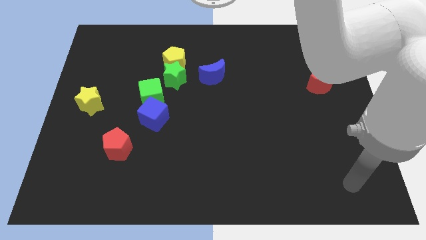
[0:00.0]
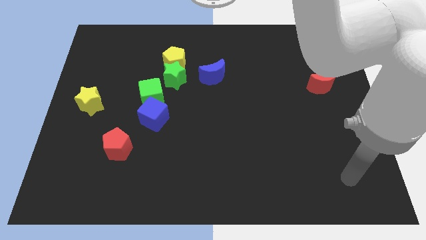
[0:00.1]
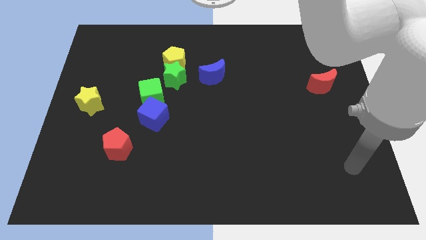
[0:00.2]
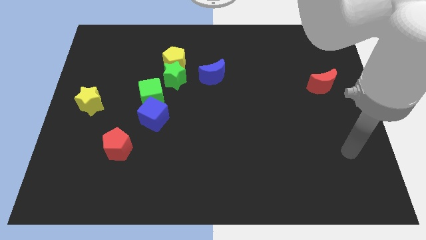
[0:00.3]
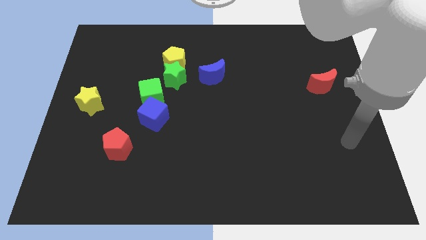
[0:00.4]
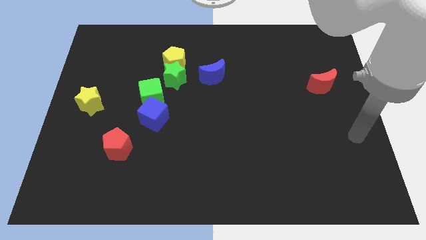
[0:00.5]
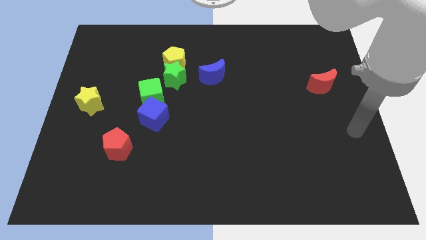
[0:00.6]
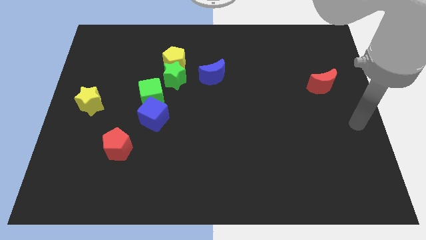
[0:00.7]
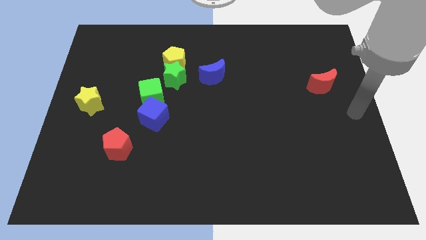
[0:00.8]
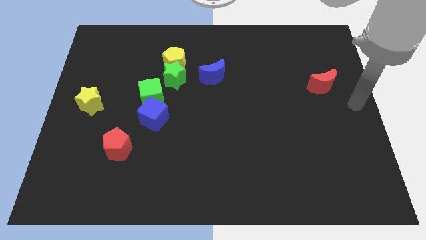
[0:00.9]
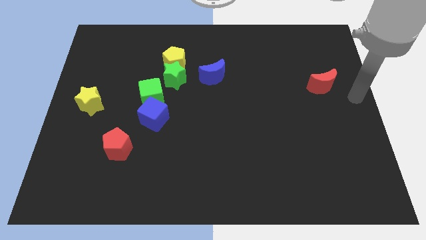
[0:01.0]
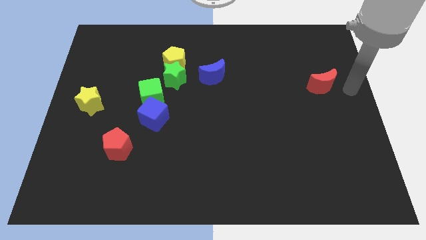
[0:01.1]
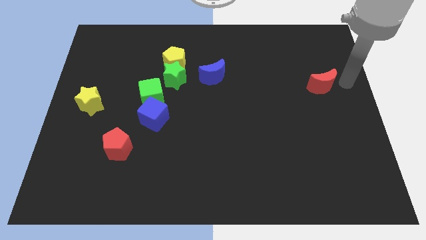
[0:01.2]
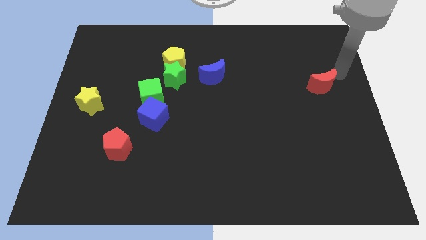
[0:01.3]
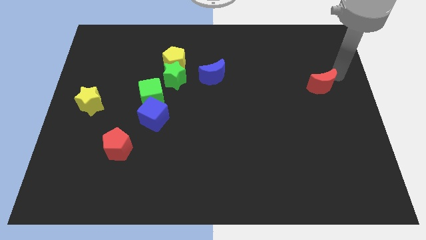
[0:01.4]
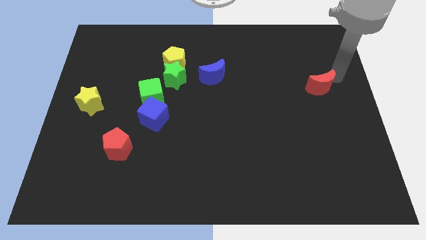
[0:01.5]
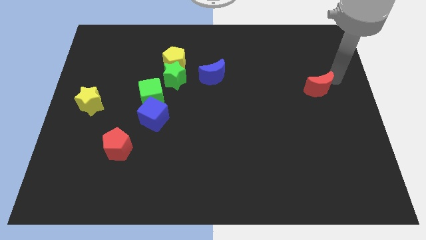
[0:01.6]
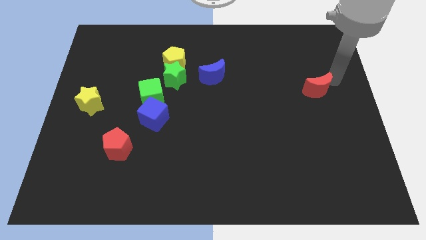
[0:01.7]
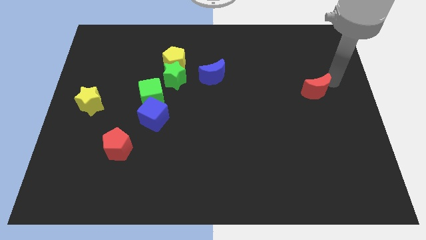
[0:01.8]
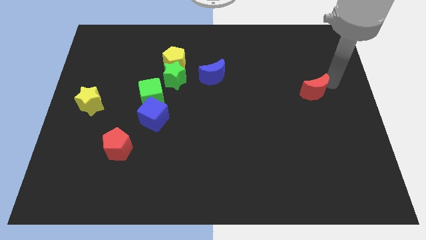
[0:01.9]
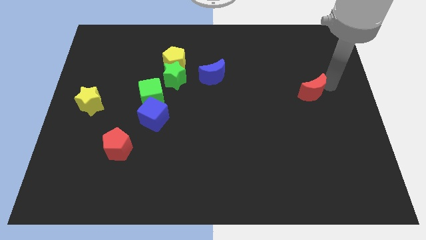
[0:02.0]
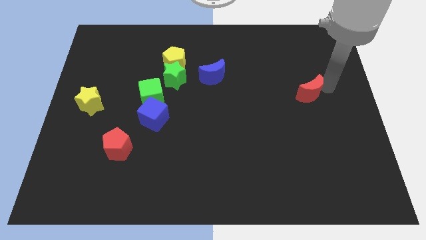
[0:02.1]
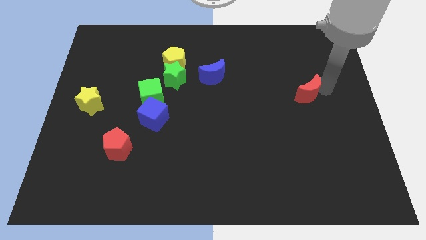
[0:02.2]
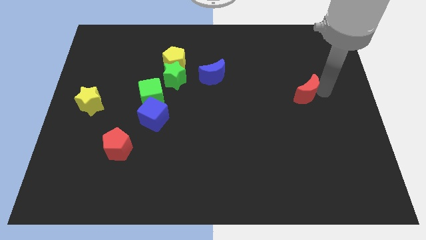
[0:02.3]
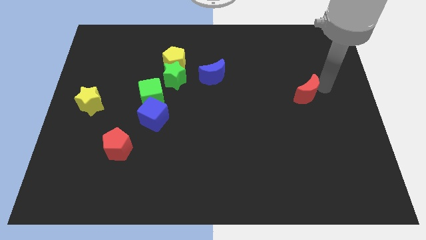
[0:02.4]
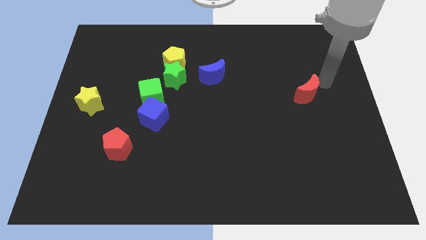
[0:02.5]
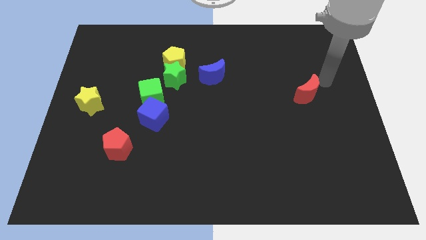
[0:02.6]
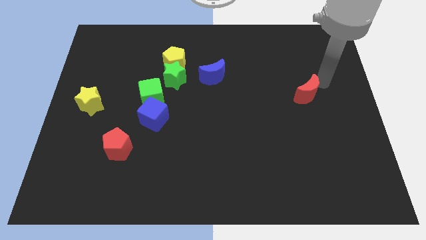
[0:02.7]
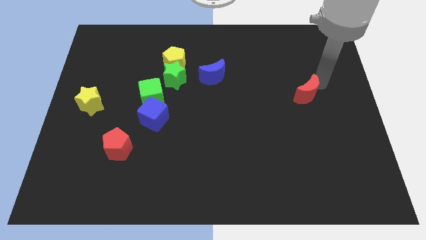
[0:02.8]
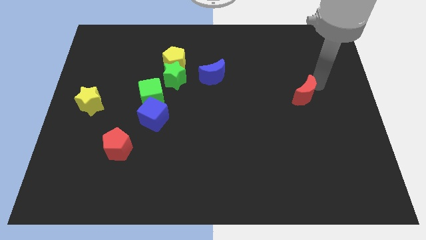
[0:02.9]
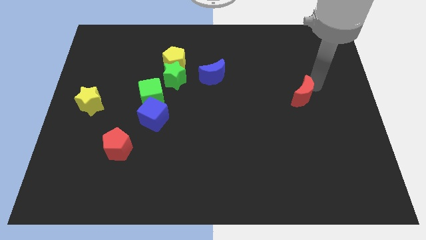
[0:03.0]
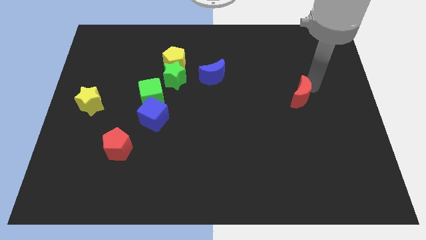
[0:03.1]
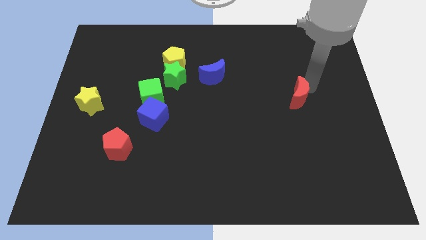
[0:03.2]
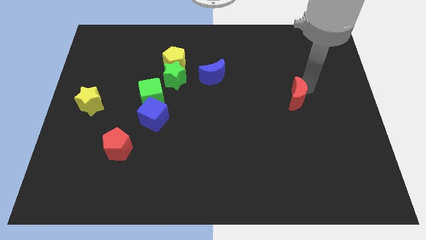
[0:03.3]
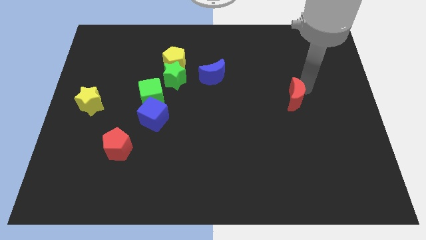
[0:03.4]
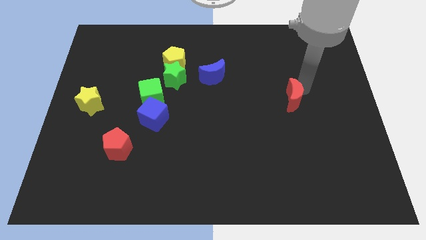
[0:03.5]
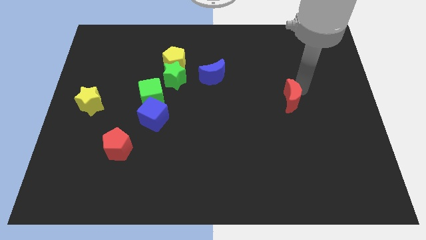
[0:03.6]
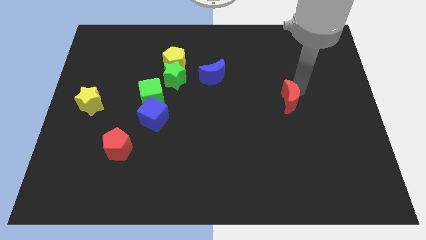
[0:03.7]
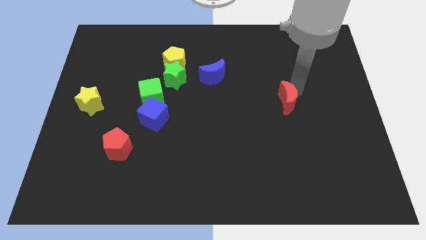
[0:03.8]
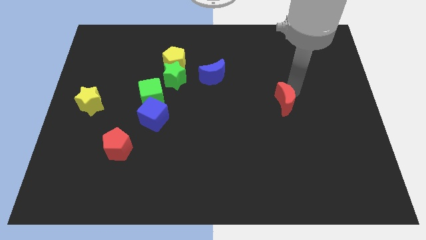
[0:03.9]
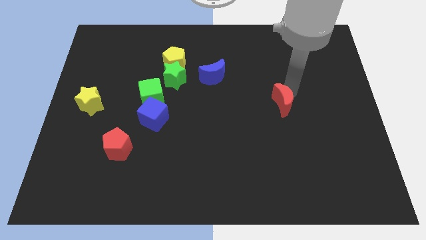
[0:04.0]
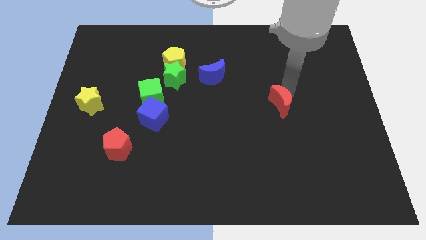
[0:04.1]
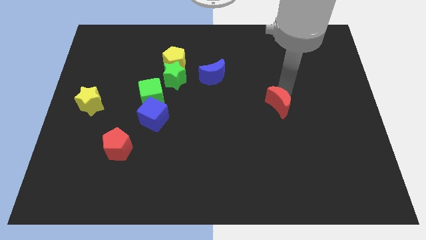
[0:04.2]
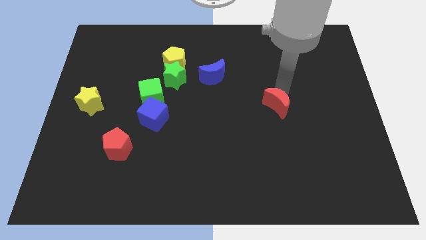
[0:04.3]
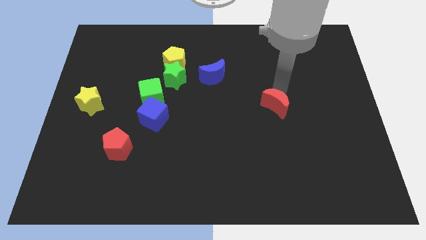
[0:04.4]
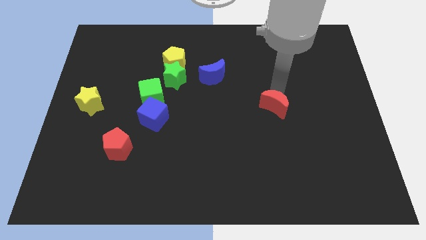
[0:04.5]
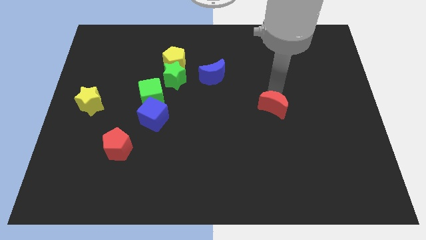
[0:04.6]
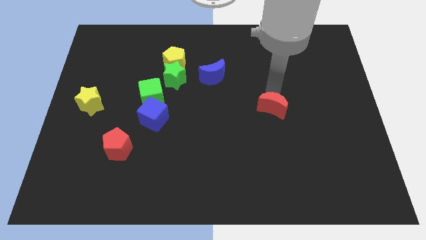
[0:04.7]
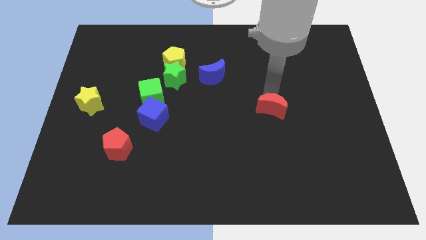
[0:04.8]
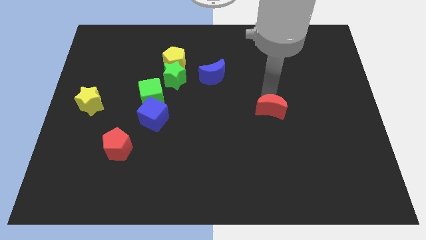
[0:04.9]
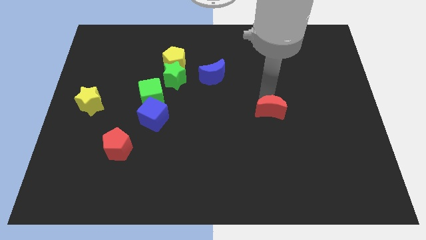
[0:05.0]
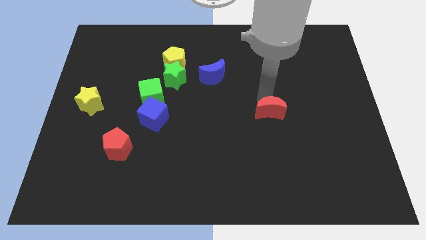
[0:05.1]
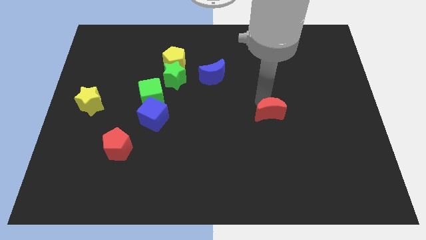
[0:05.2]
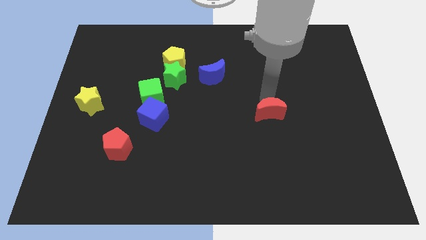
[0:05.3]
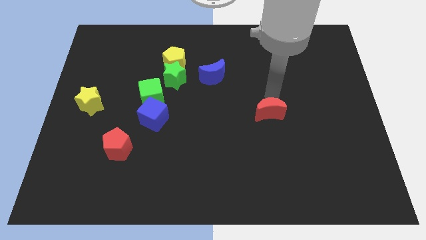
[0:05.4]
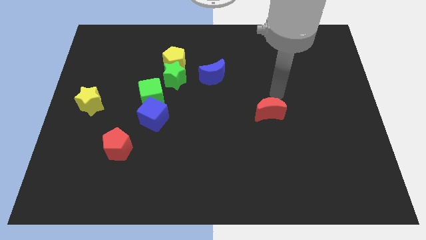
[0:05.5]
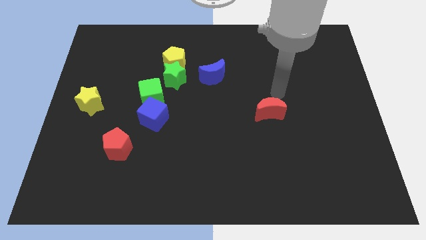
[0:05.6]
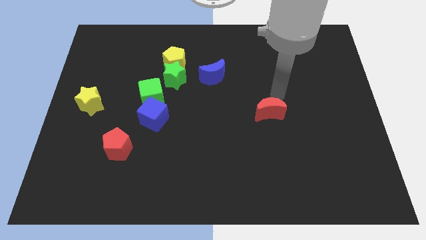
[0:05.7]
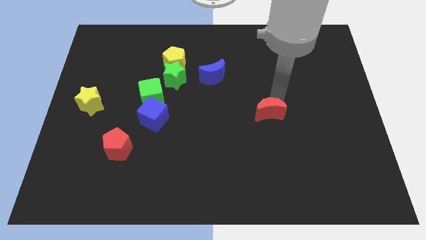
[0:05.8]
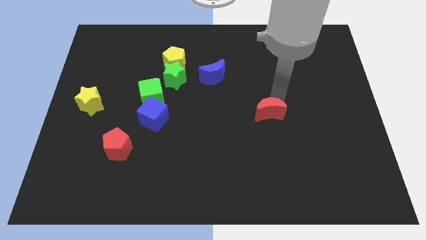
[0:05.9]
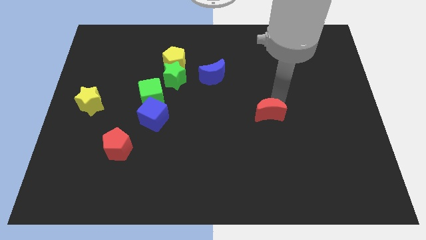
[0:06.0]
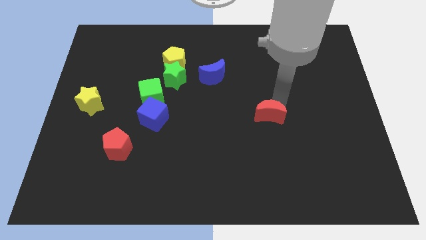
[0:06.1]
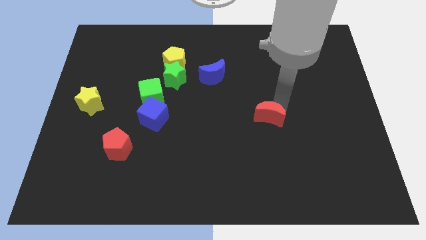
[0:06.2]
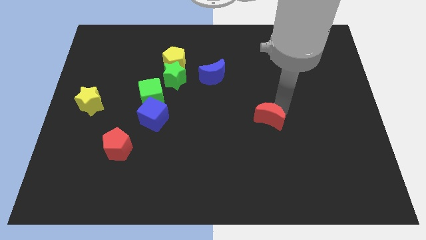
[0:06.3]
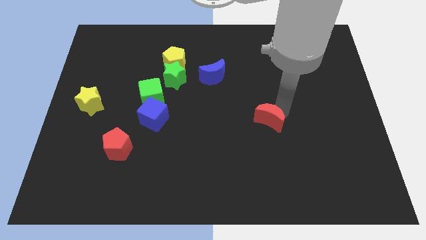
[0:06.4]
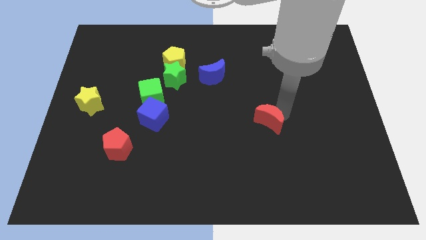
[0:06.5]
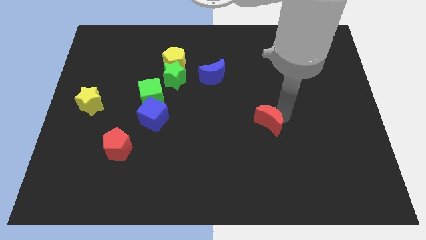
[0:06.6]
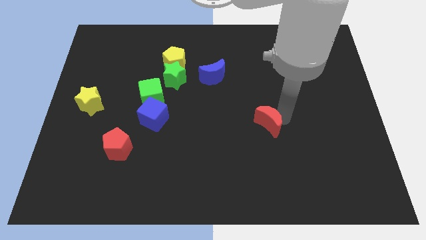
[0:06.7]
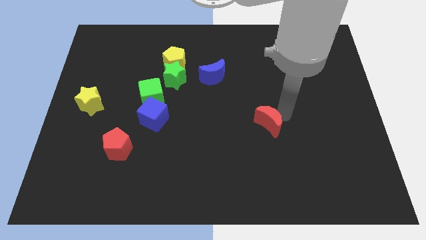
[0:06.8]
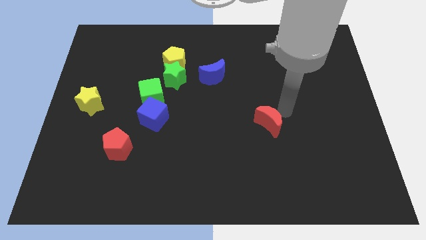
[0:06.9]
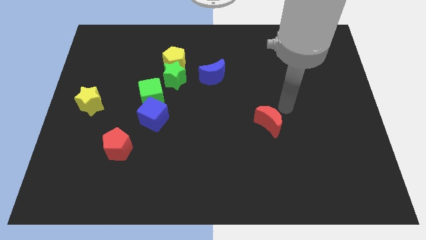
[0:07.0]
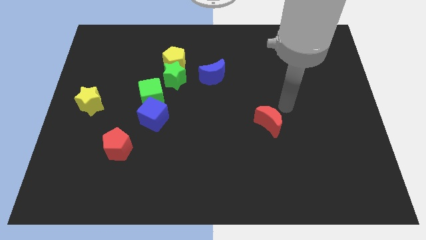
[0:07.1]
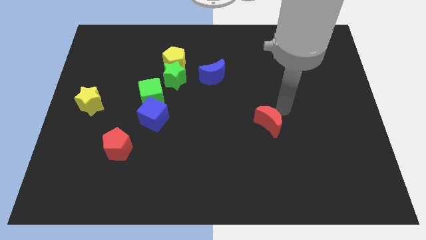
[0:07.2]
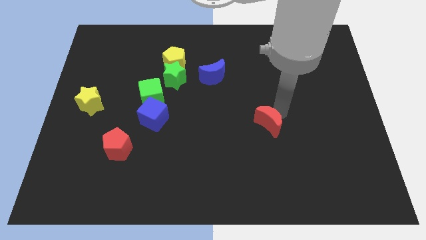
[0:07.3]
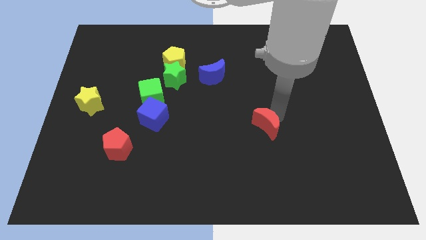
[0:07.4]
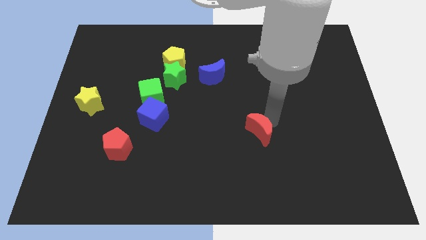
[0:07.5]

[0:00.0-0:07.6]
push the red moon down and then to the left
